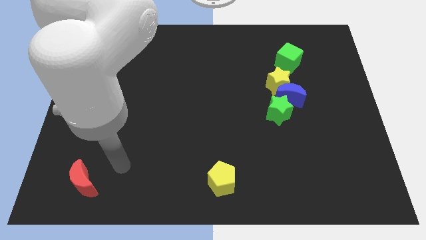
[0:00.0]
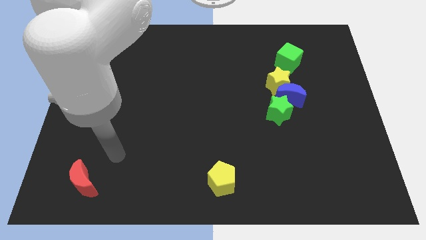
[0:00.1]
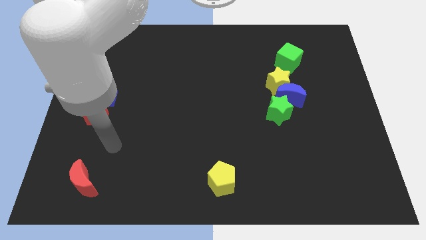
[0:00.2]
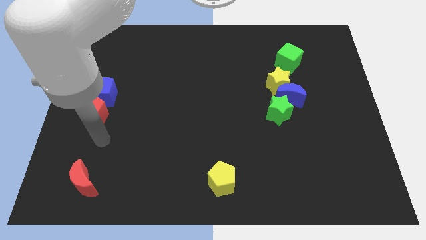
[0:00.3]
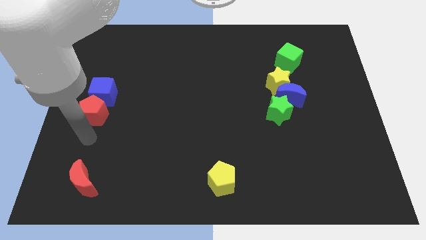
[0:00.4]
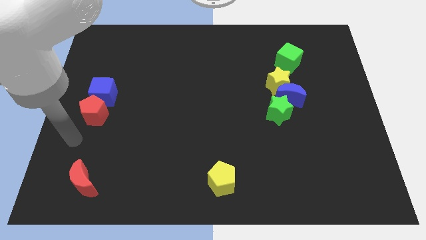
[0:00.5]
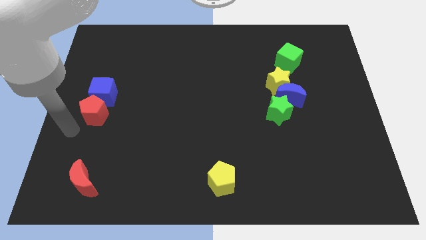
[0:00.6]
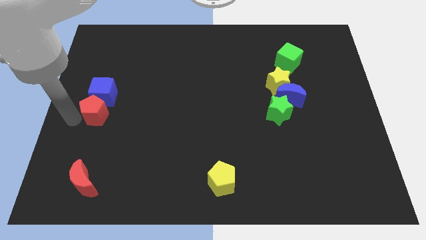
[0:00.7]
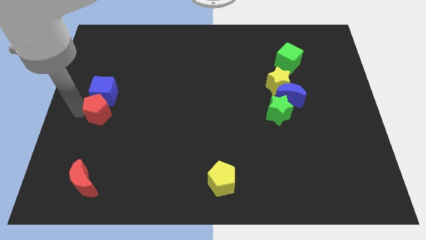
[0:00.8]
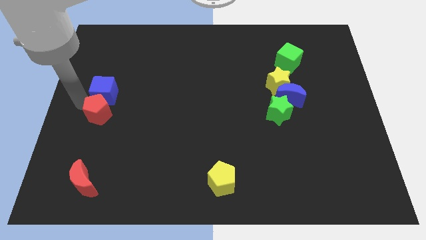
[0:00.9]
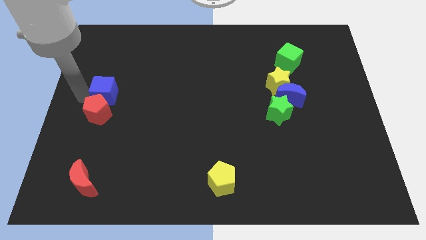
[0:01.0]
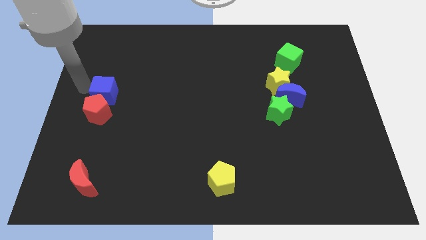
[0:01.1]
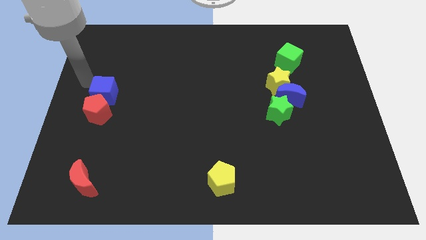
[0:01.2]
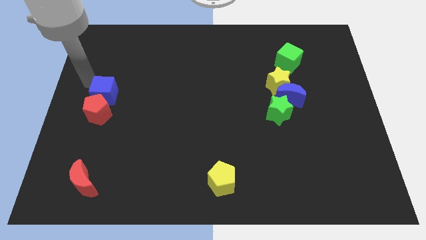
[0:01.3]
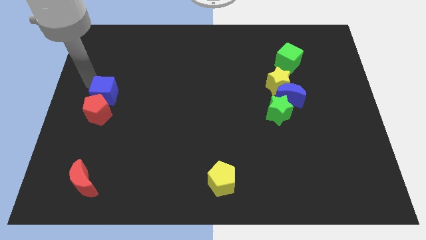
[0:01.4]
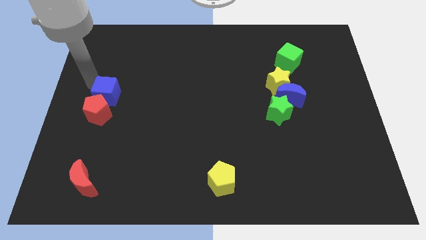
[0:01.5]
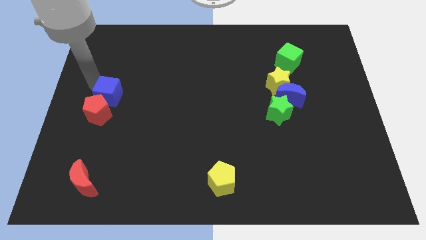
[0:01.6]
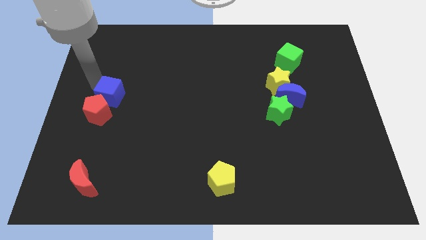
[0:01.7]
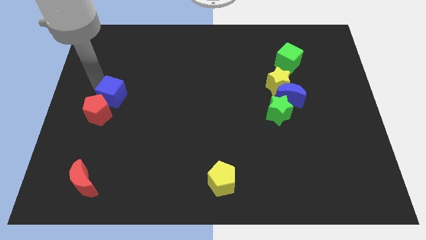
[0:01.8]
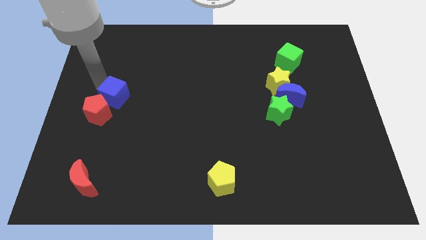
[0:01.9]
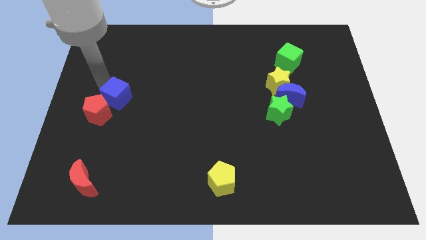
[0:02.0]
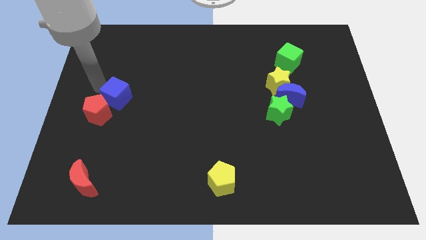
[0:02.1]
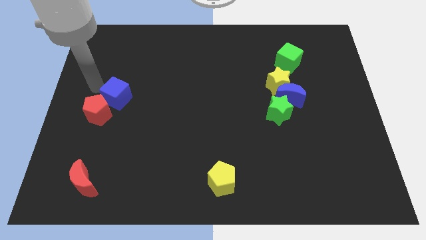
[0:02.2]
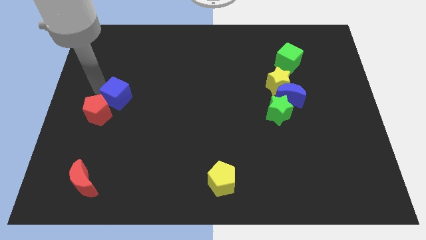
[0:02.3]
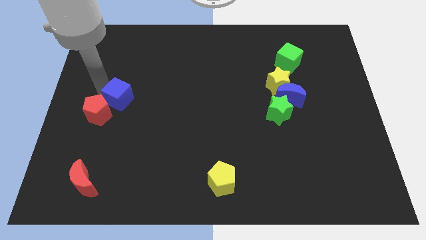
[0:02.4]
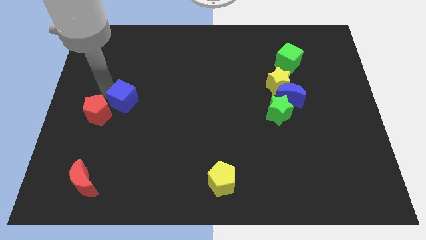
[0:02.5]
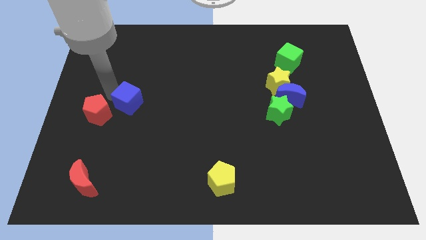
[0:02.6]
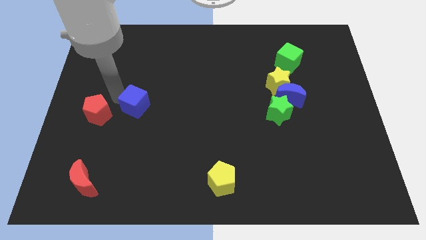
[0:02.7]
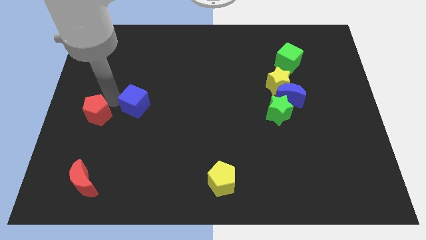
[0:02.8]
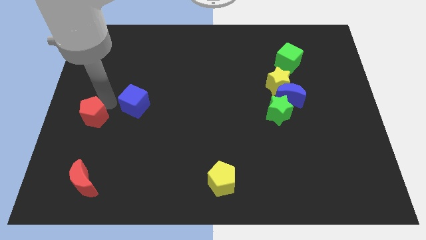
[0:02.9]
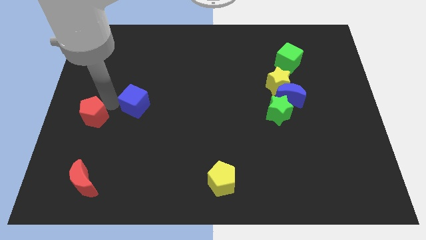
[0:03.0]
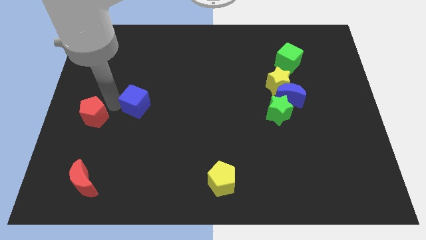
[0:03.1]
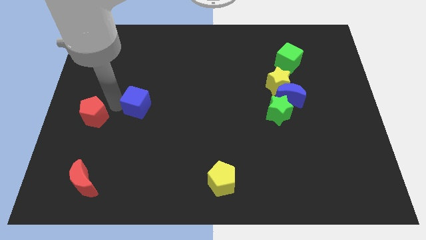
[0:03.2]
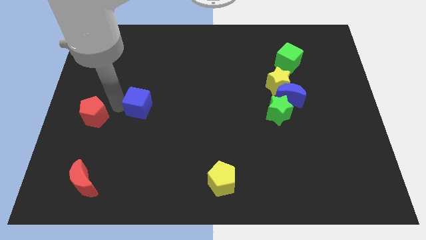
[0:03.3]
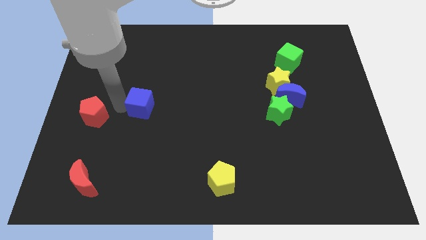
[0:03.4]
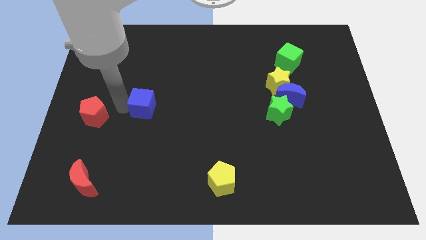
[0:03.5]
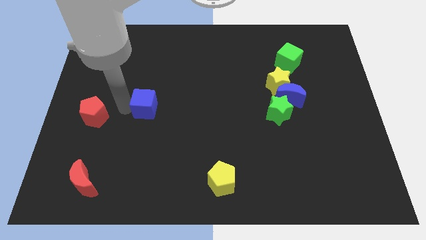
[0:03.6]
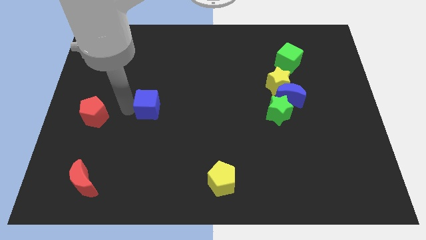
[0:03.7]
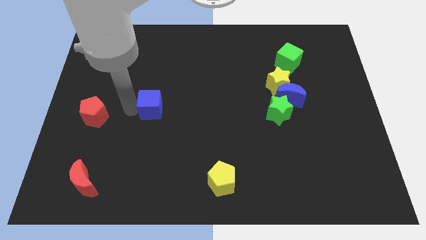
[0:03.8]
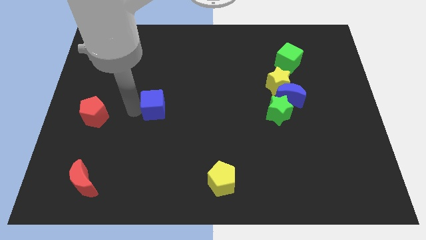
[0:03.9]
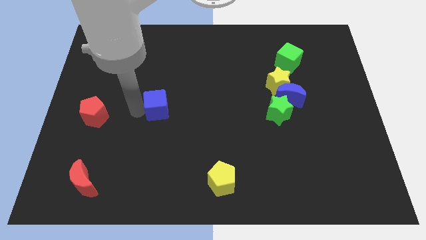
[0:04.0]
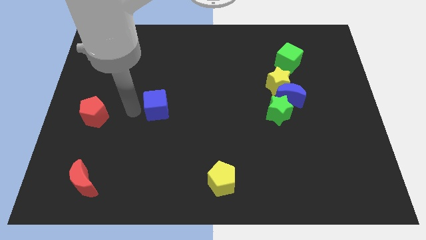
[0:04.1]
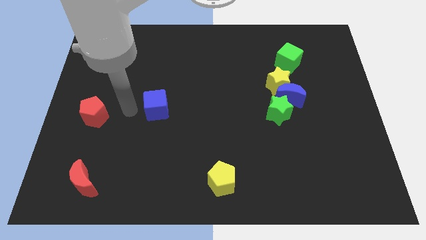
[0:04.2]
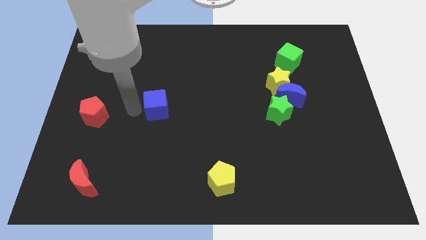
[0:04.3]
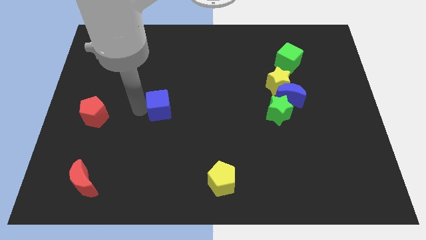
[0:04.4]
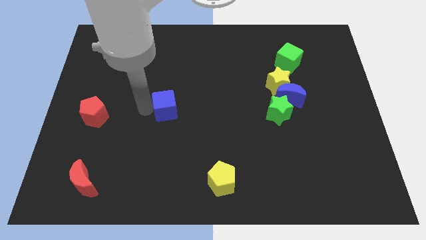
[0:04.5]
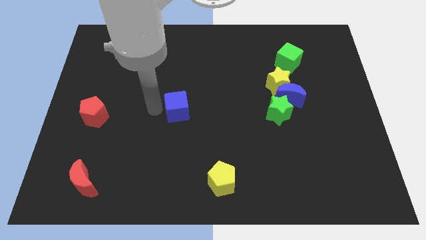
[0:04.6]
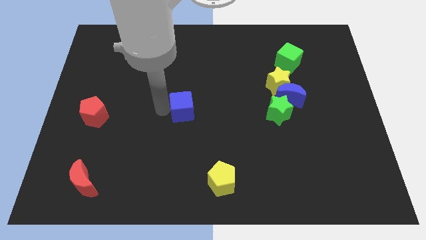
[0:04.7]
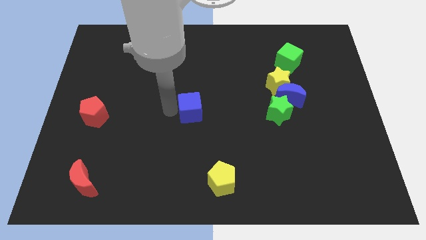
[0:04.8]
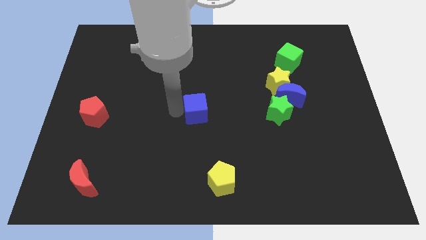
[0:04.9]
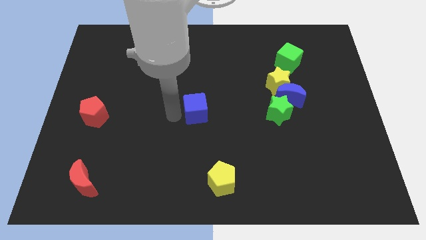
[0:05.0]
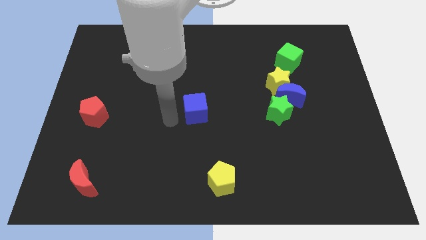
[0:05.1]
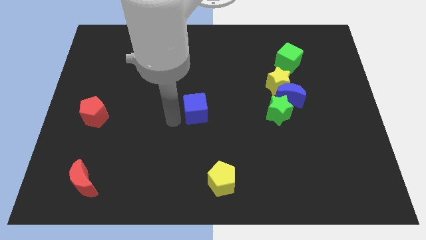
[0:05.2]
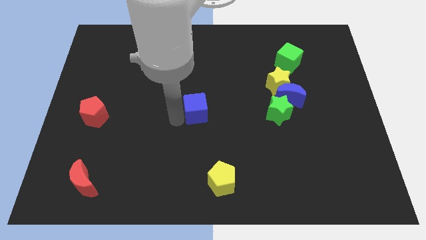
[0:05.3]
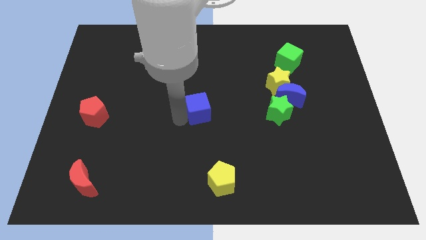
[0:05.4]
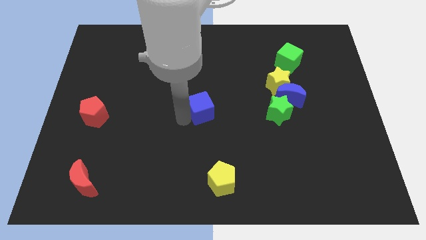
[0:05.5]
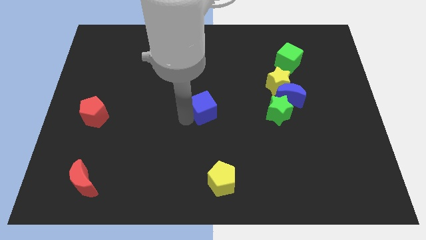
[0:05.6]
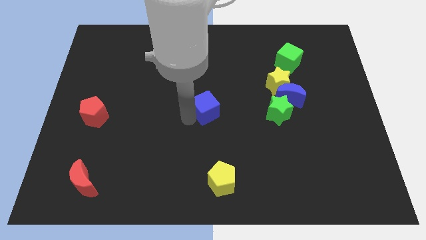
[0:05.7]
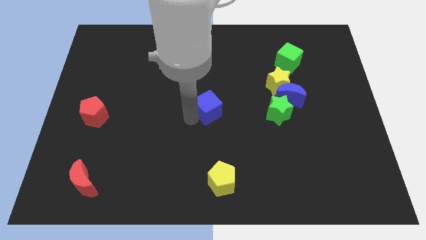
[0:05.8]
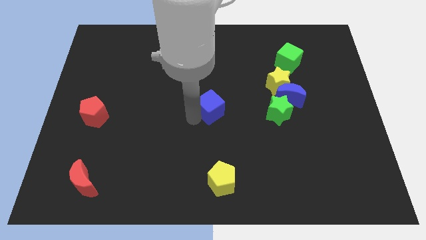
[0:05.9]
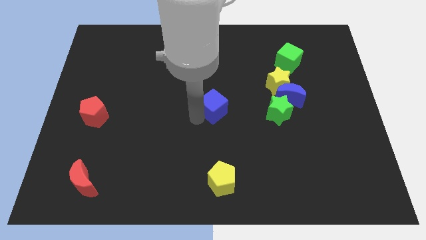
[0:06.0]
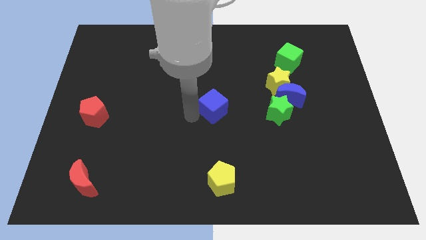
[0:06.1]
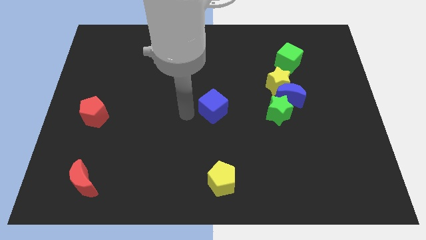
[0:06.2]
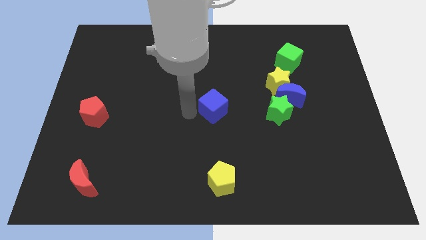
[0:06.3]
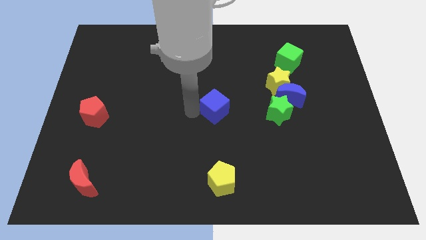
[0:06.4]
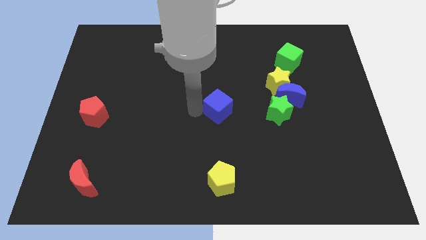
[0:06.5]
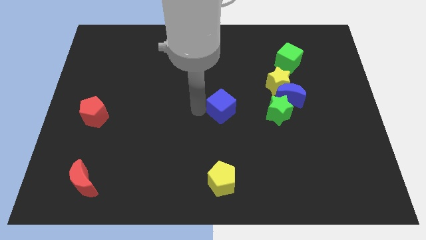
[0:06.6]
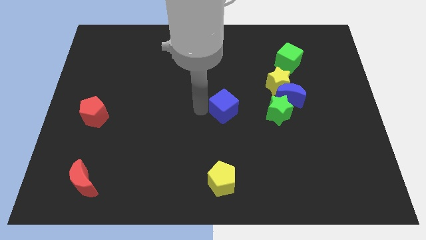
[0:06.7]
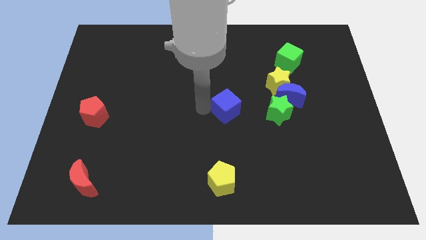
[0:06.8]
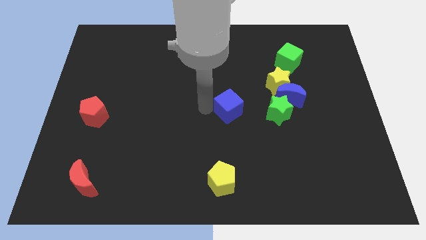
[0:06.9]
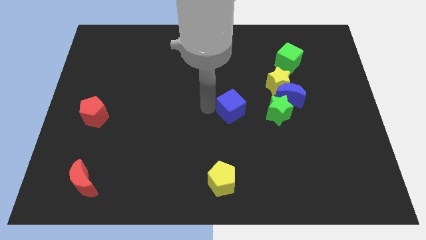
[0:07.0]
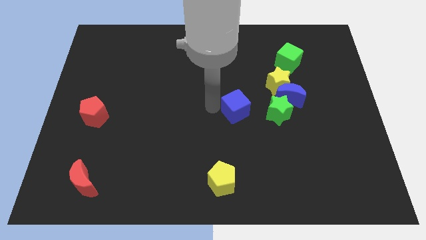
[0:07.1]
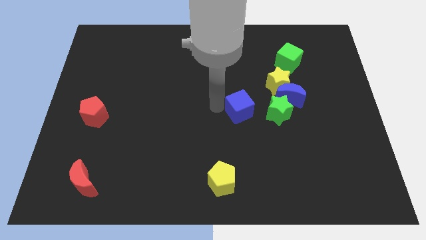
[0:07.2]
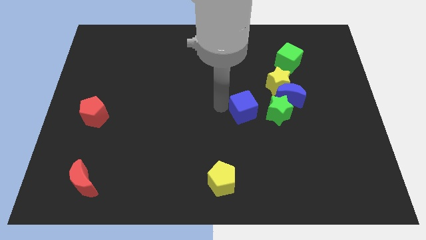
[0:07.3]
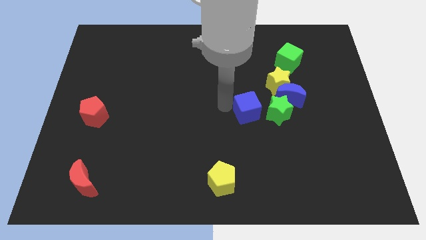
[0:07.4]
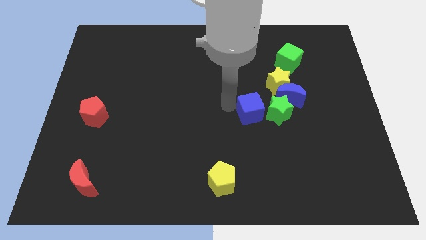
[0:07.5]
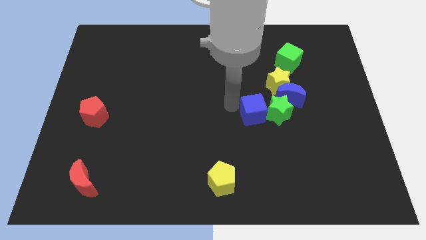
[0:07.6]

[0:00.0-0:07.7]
move the blue cube close to the green star
